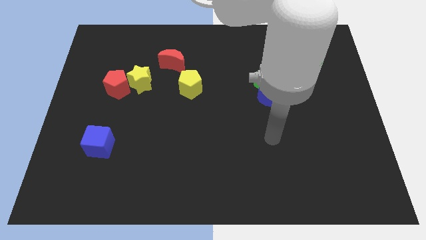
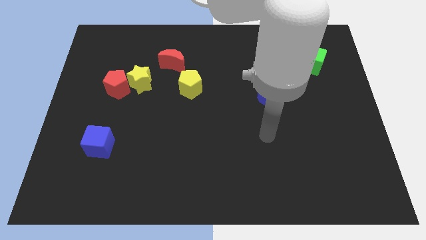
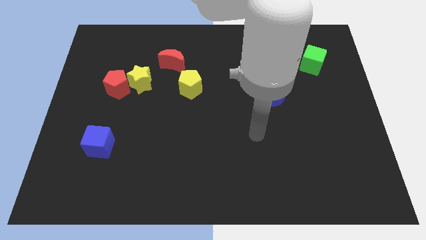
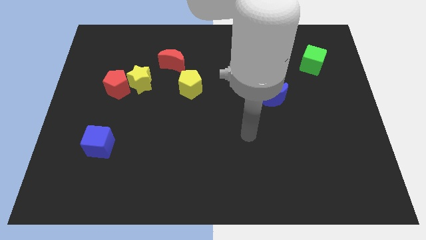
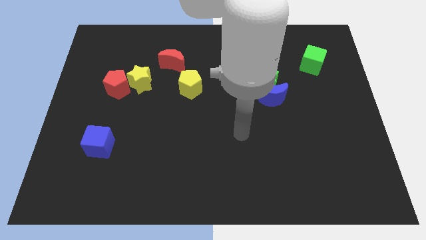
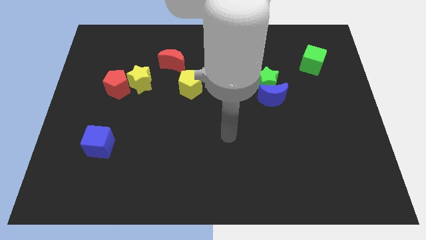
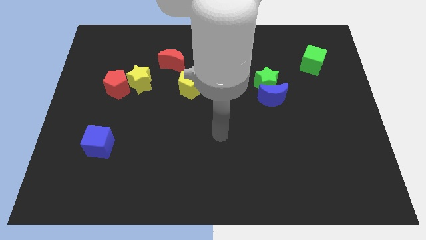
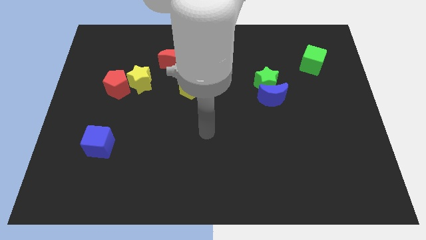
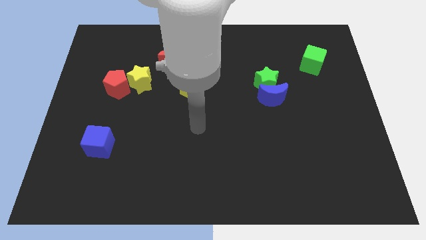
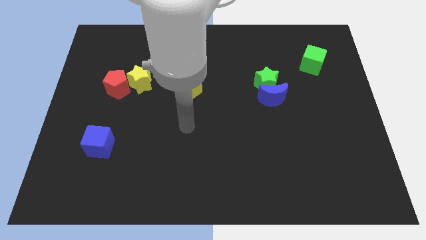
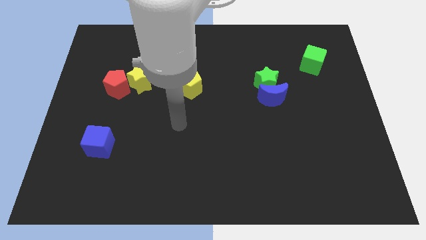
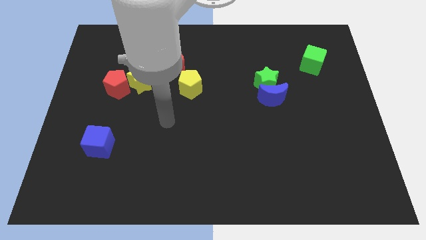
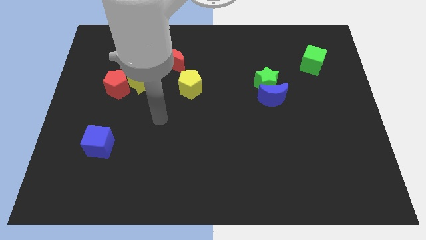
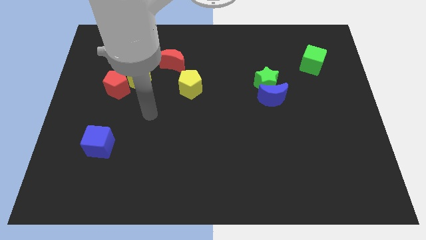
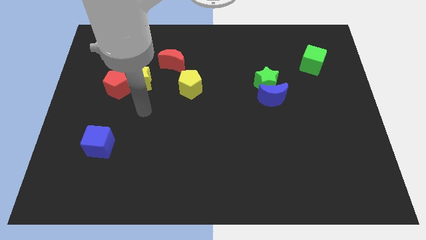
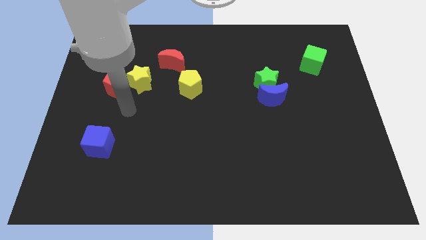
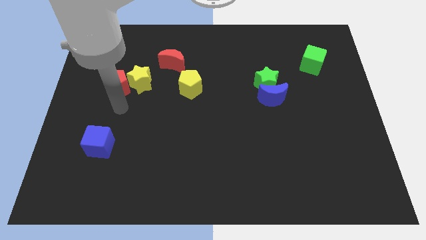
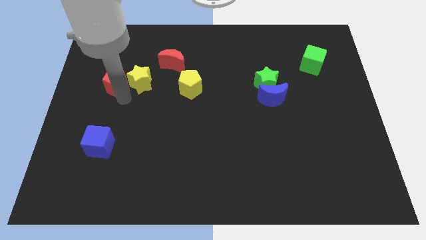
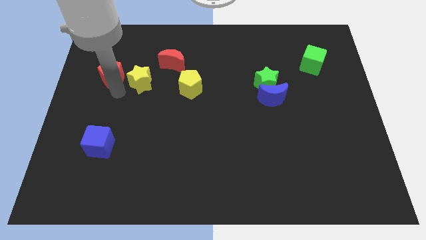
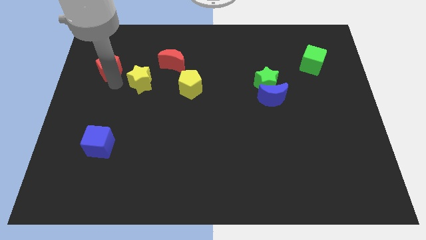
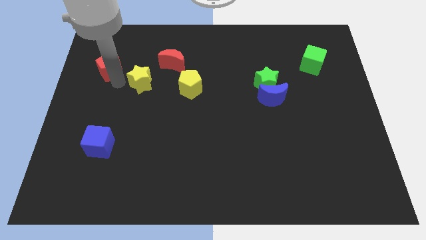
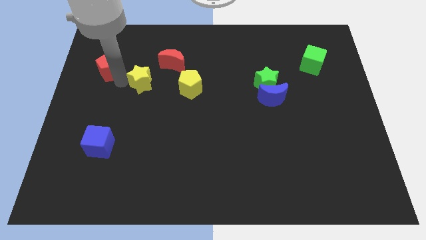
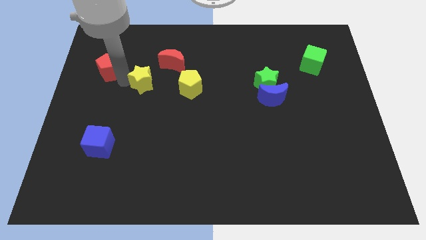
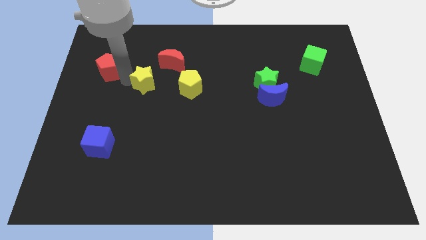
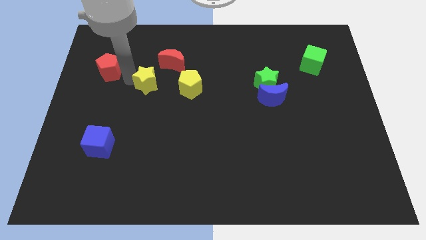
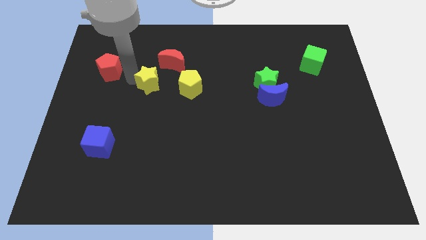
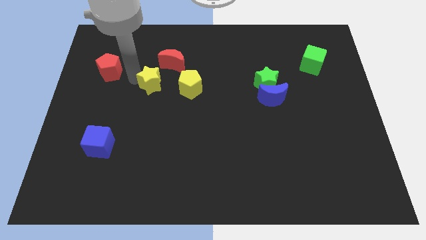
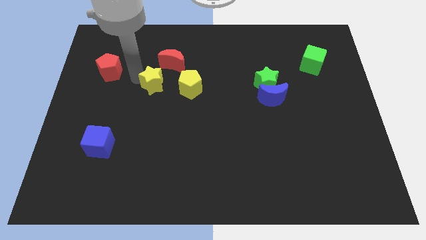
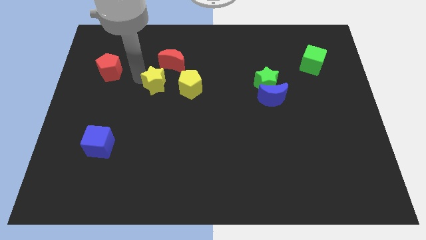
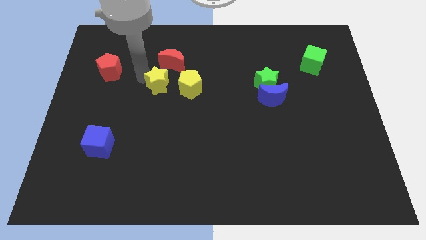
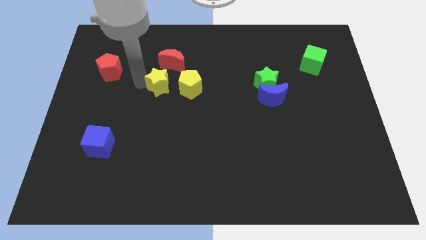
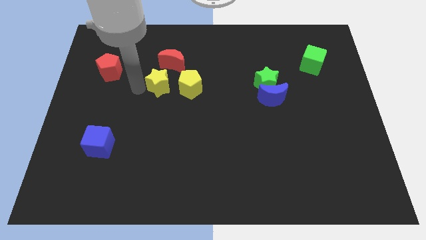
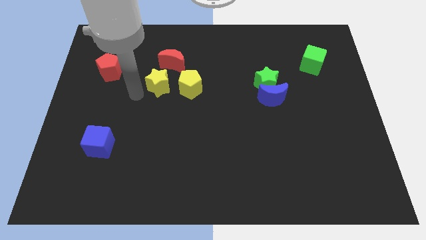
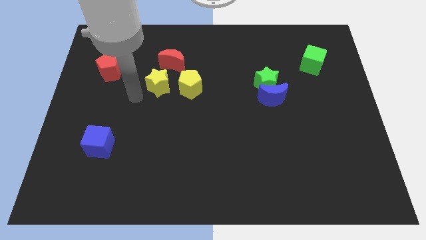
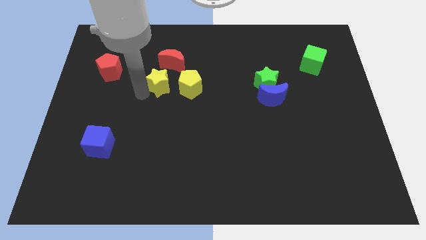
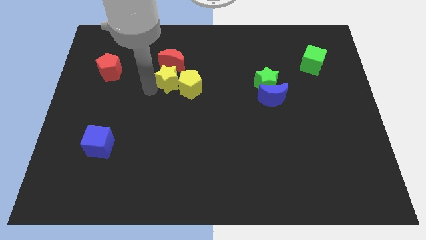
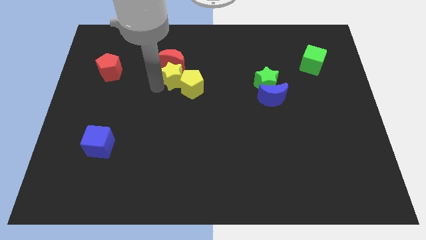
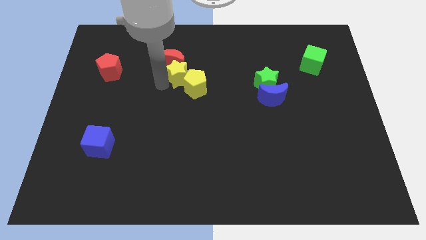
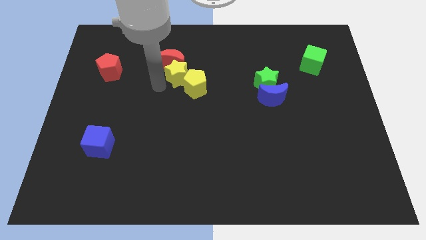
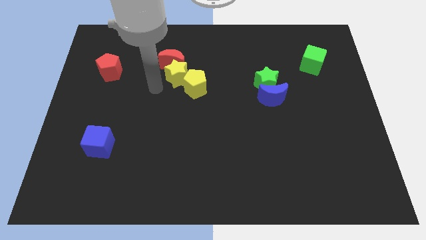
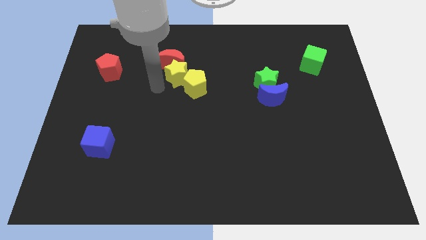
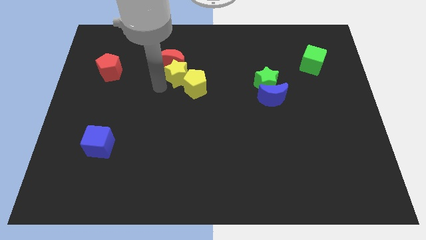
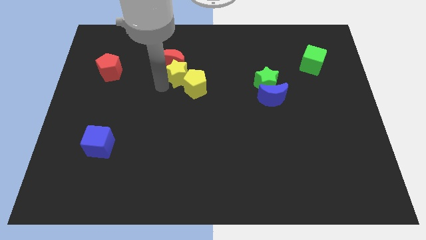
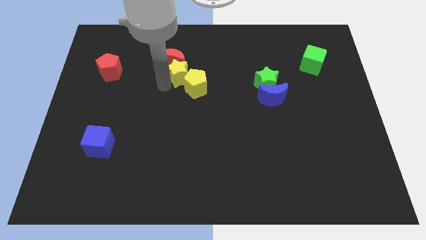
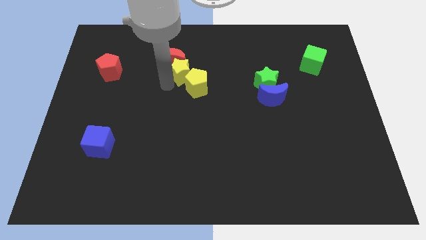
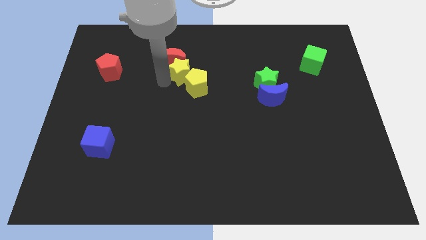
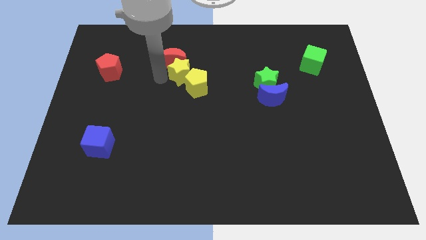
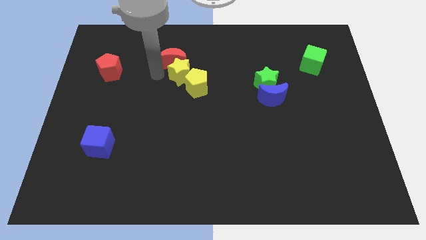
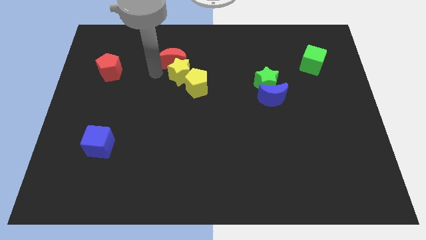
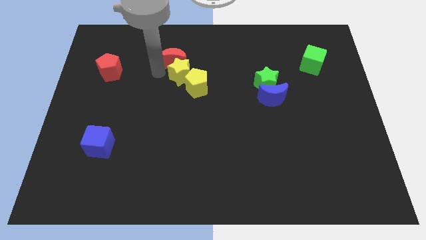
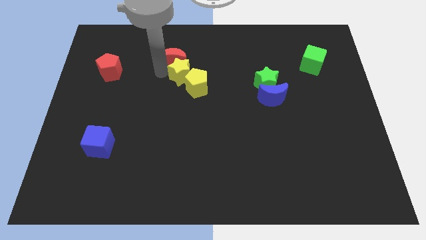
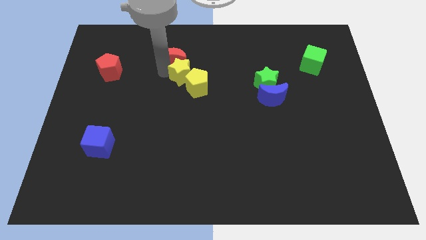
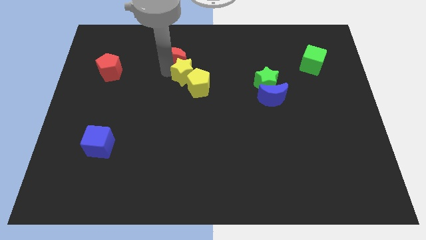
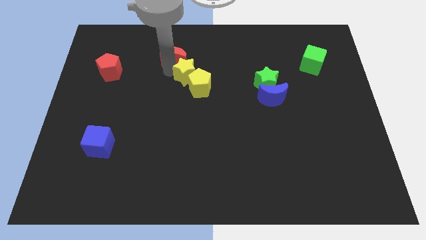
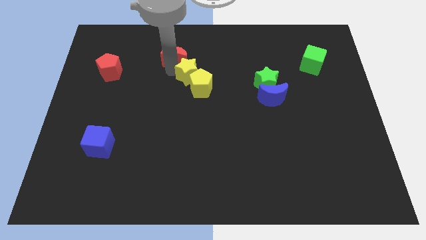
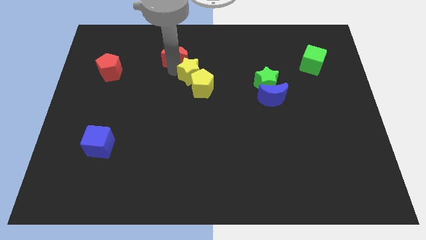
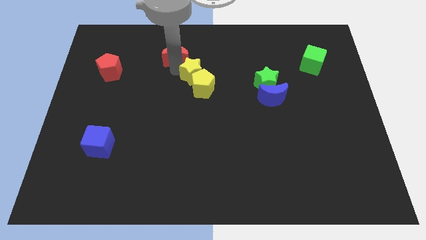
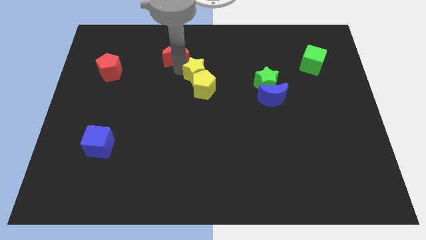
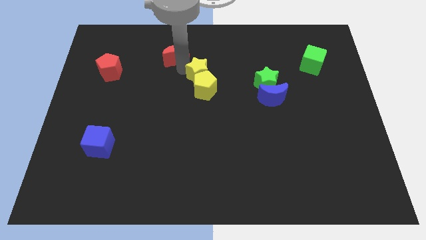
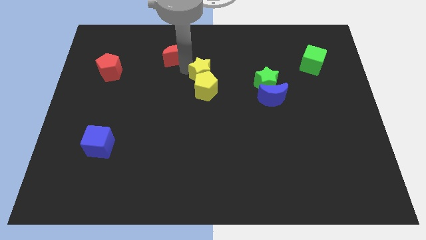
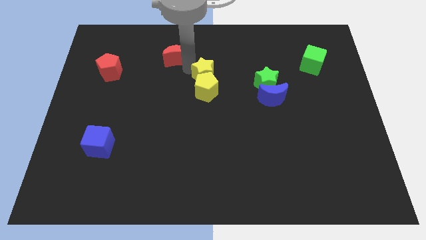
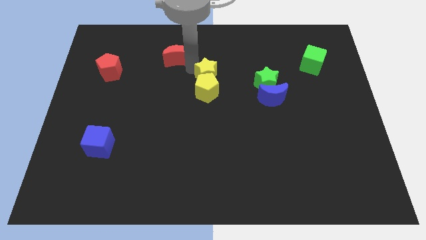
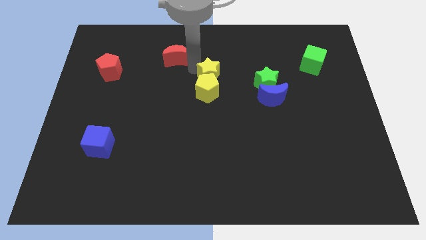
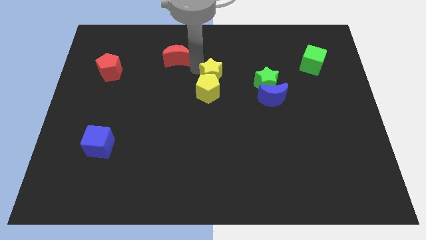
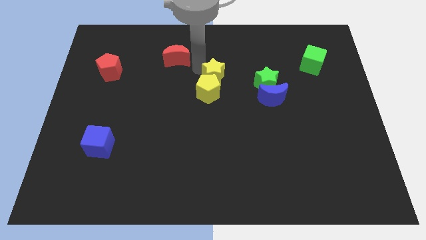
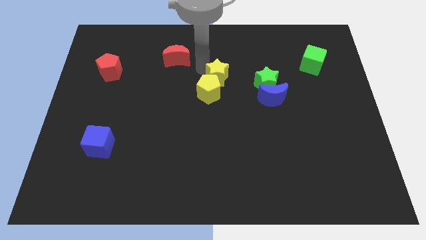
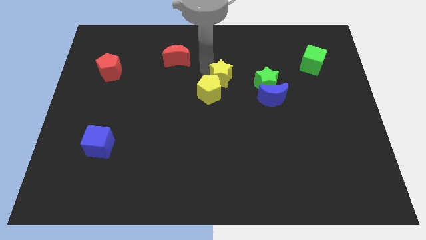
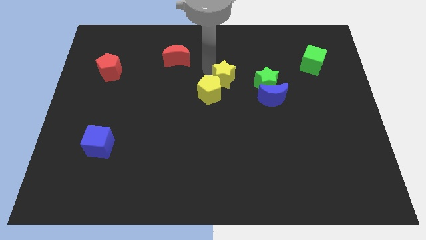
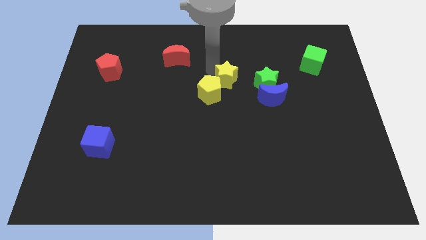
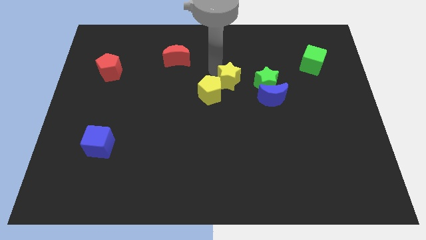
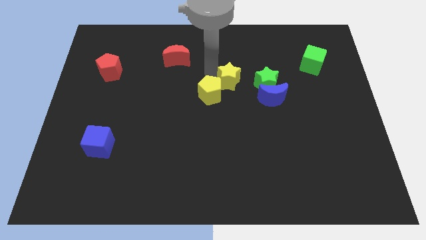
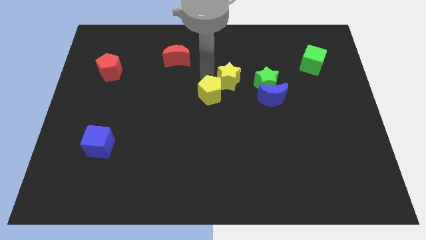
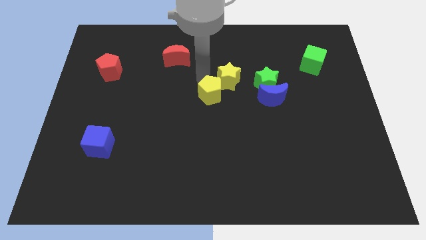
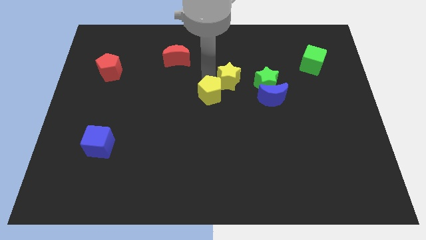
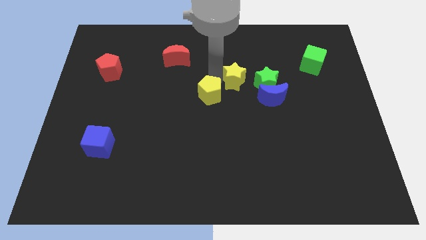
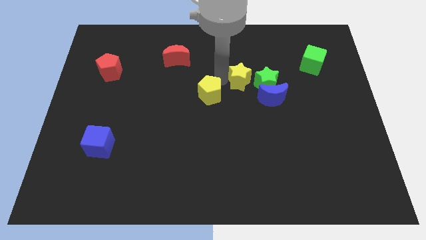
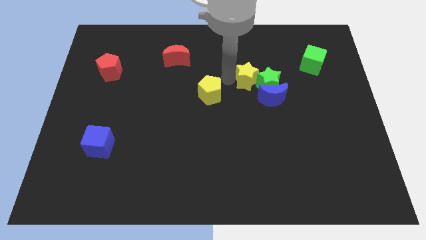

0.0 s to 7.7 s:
put the yellow star towards the green star
